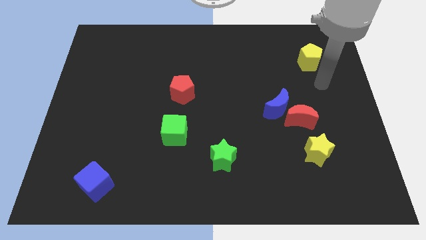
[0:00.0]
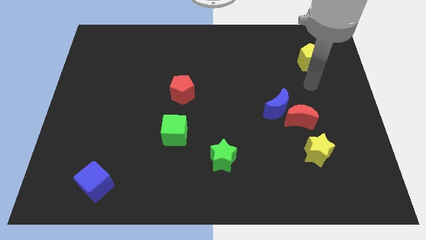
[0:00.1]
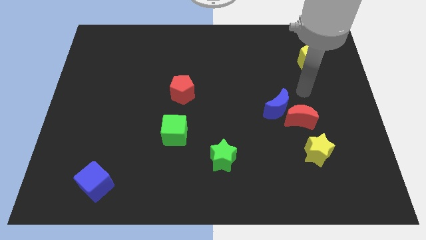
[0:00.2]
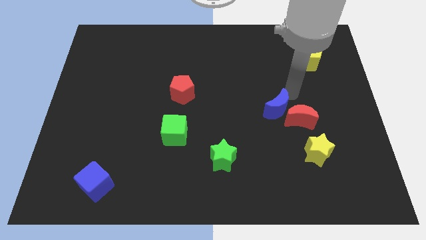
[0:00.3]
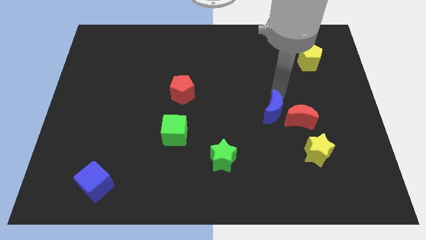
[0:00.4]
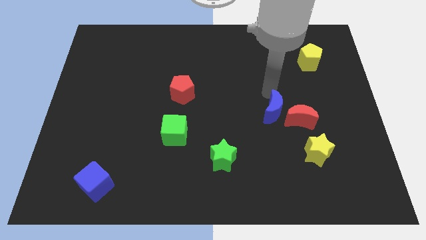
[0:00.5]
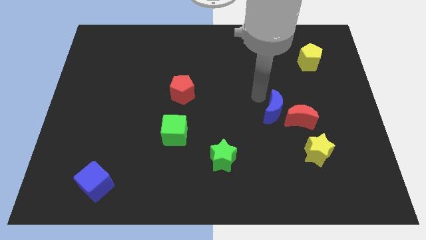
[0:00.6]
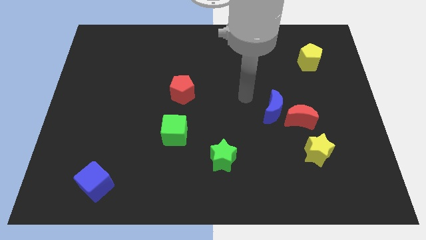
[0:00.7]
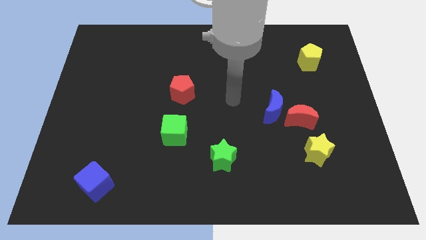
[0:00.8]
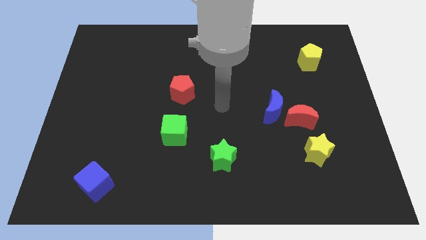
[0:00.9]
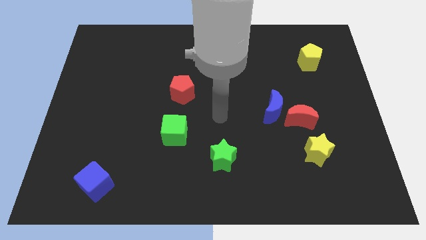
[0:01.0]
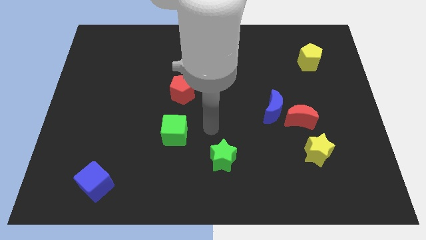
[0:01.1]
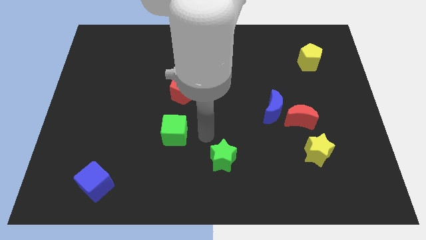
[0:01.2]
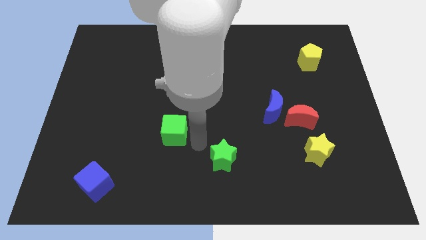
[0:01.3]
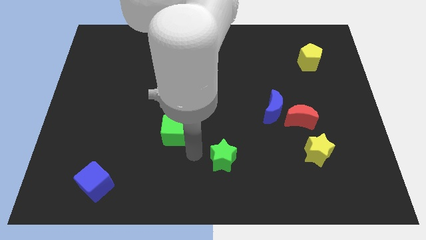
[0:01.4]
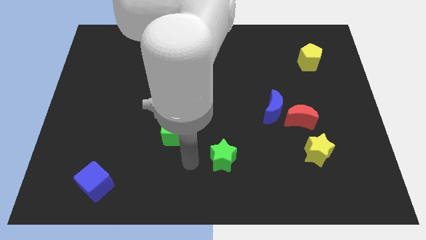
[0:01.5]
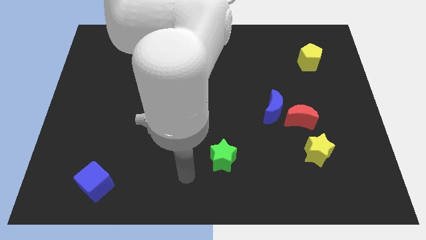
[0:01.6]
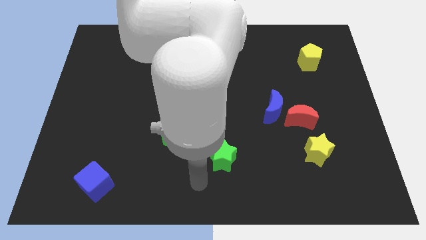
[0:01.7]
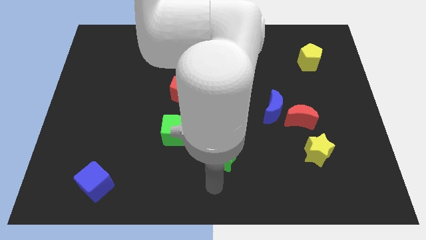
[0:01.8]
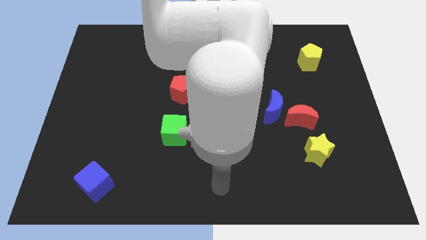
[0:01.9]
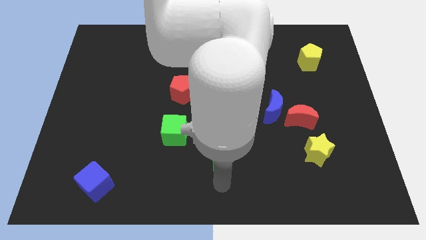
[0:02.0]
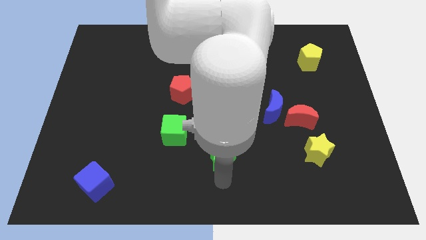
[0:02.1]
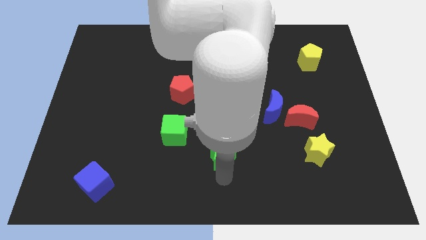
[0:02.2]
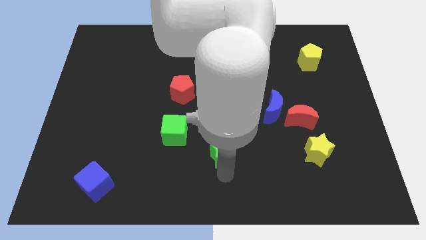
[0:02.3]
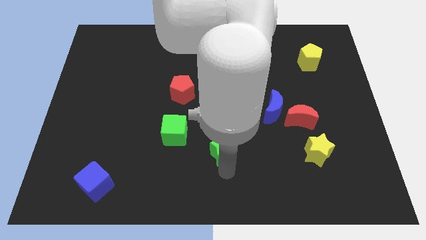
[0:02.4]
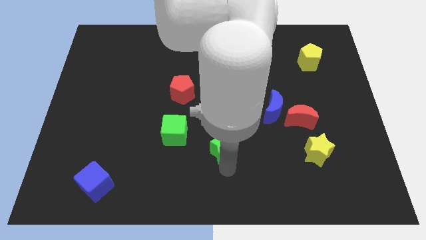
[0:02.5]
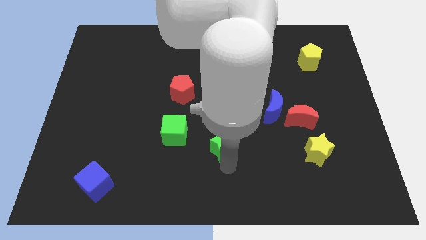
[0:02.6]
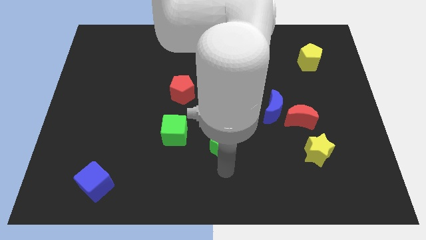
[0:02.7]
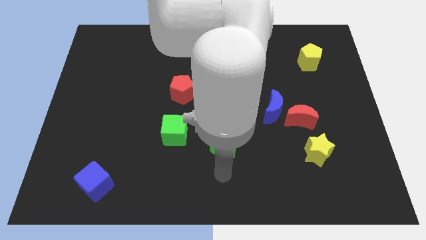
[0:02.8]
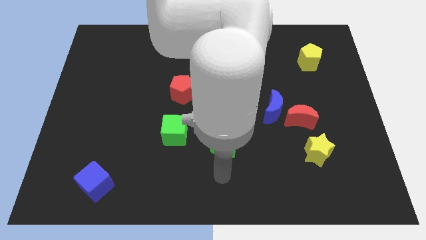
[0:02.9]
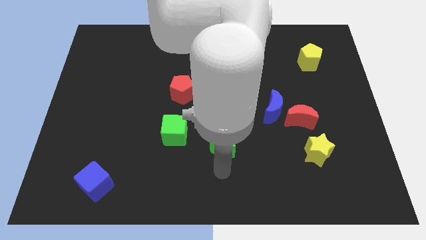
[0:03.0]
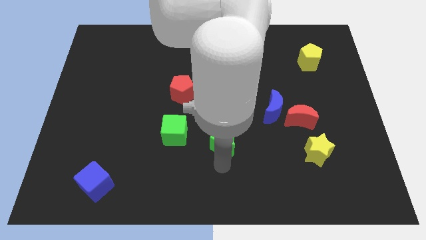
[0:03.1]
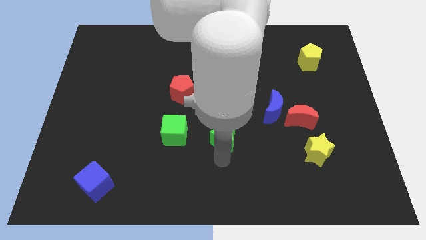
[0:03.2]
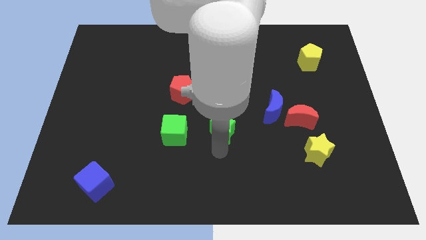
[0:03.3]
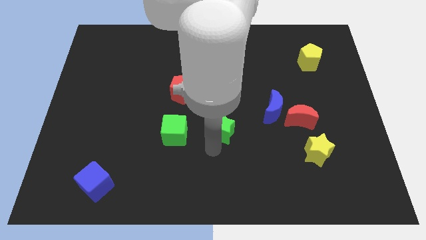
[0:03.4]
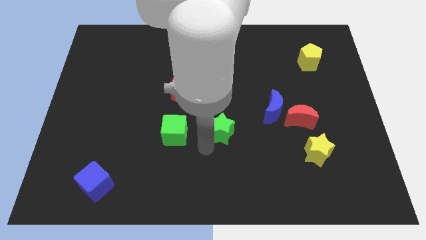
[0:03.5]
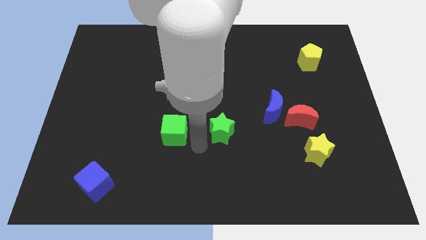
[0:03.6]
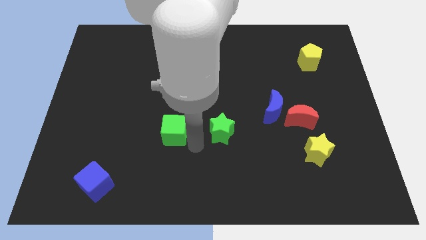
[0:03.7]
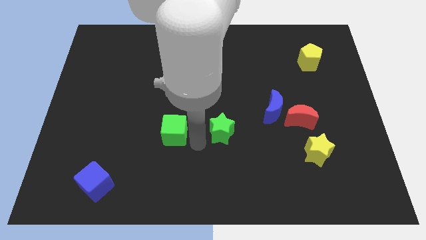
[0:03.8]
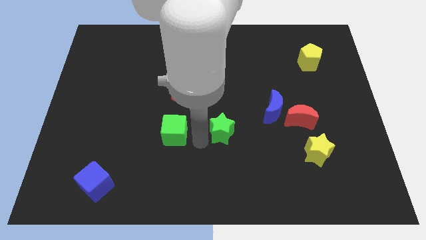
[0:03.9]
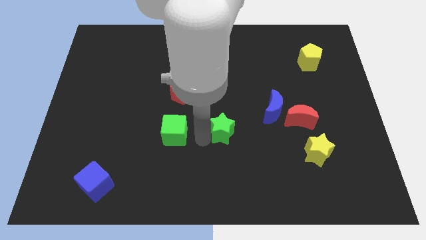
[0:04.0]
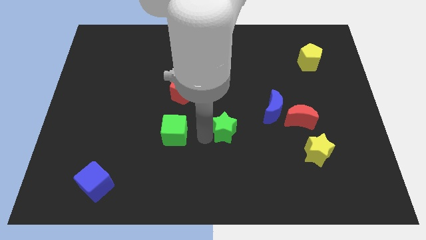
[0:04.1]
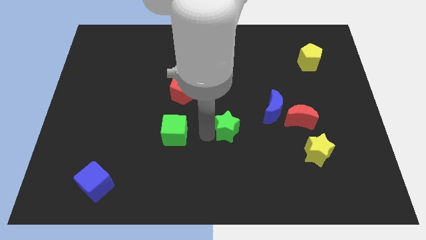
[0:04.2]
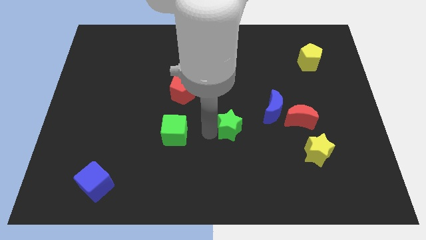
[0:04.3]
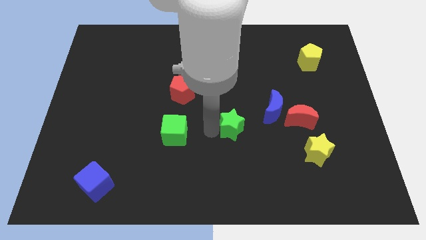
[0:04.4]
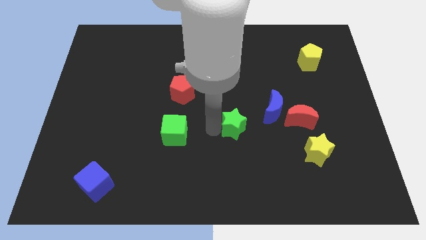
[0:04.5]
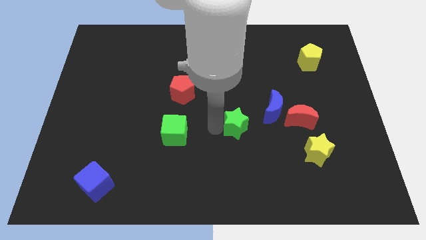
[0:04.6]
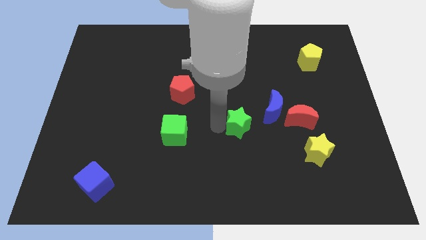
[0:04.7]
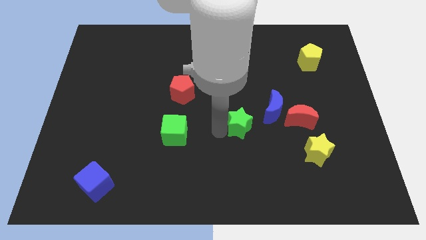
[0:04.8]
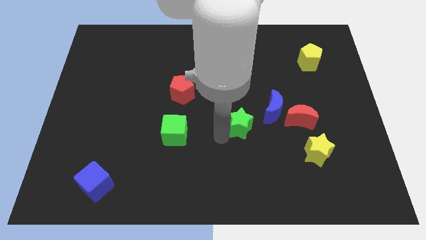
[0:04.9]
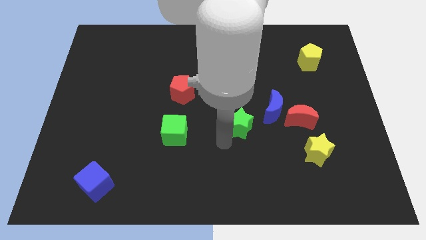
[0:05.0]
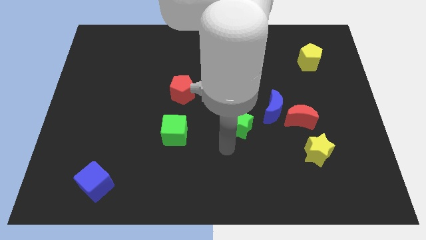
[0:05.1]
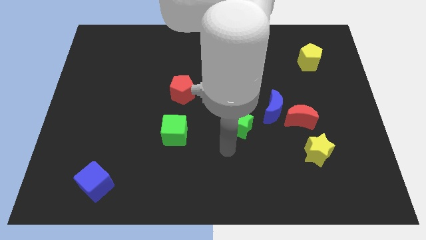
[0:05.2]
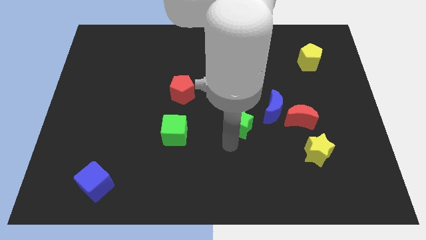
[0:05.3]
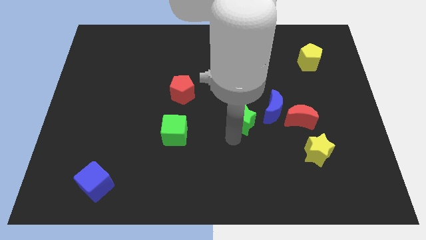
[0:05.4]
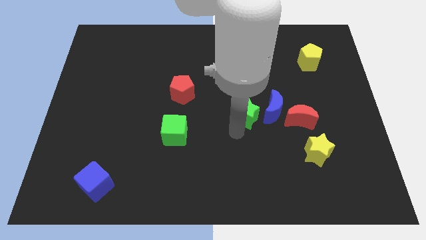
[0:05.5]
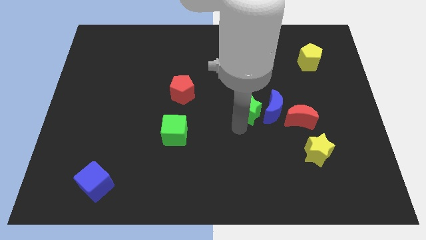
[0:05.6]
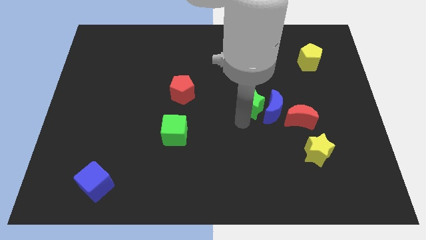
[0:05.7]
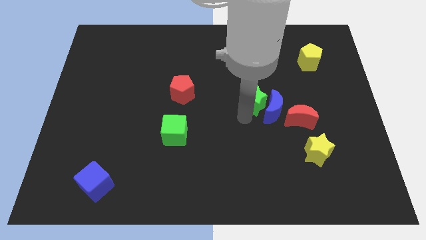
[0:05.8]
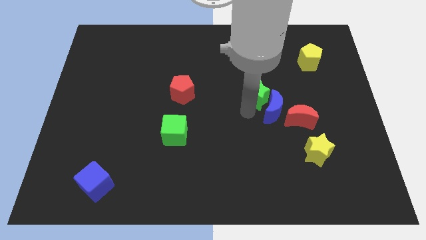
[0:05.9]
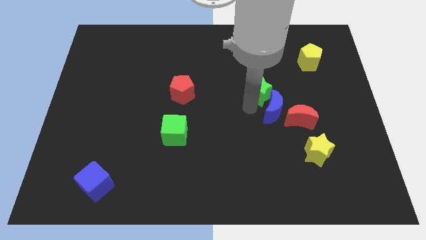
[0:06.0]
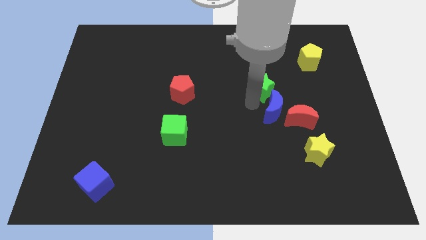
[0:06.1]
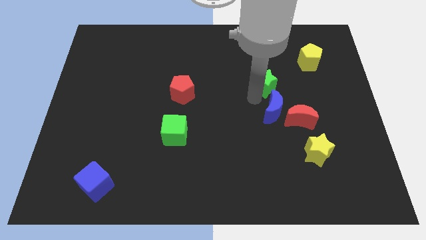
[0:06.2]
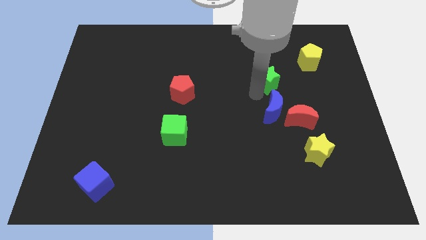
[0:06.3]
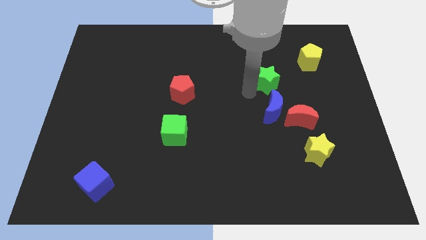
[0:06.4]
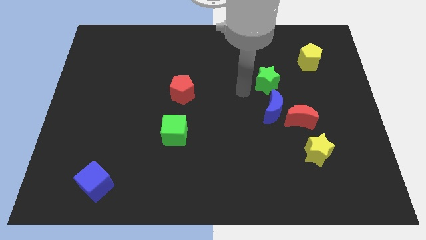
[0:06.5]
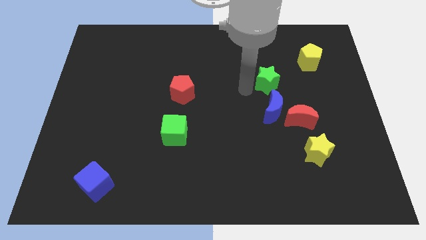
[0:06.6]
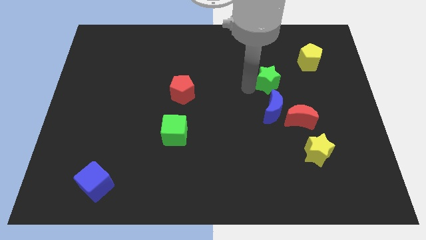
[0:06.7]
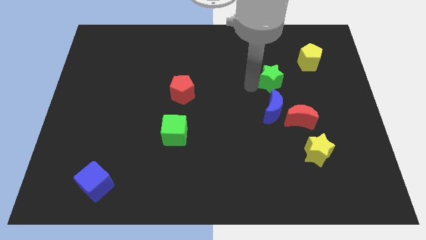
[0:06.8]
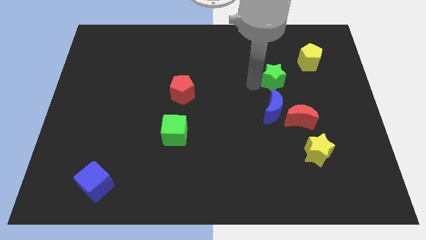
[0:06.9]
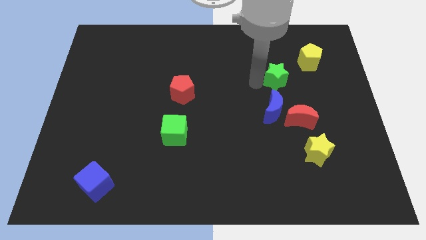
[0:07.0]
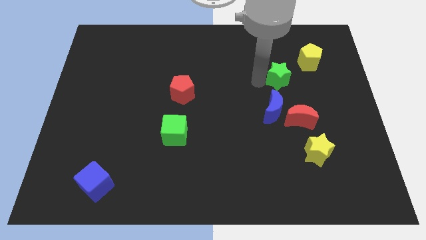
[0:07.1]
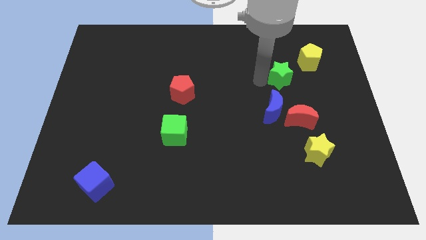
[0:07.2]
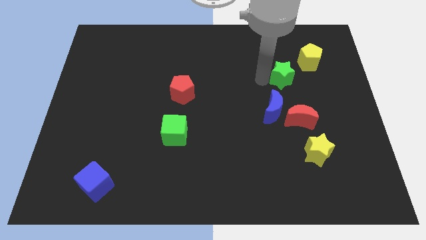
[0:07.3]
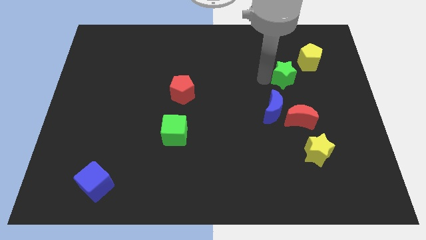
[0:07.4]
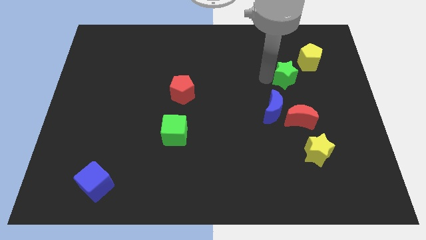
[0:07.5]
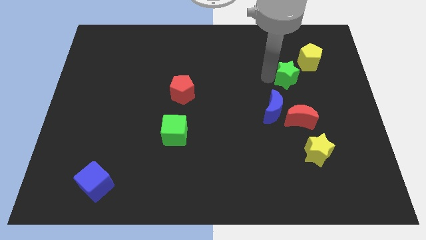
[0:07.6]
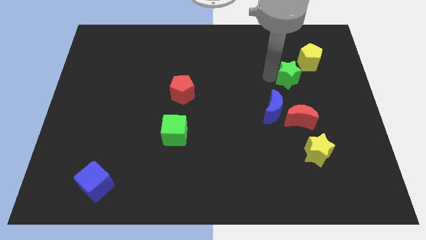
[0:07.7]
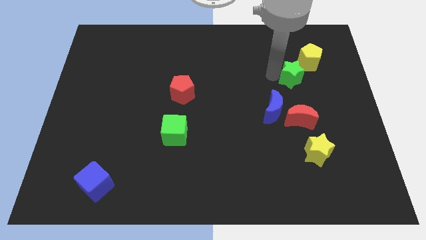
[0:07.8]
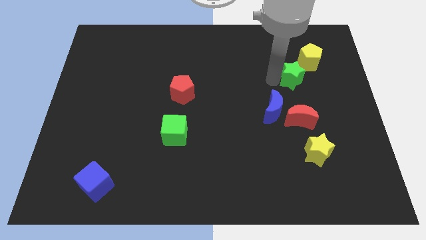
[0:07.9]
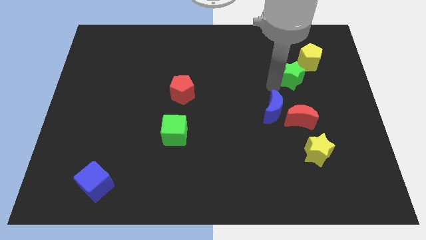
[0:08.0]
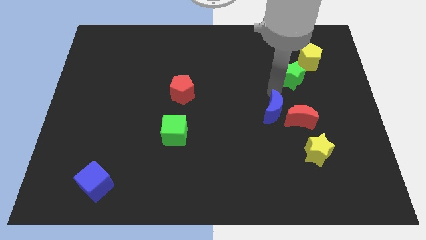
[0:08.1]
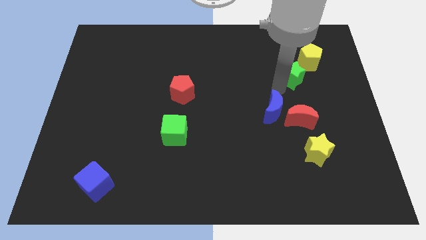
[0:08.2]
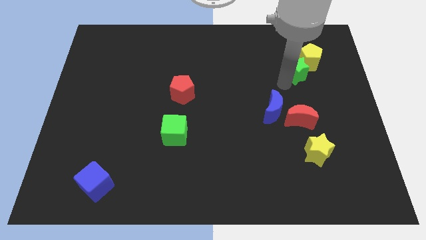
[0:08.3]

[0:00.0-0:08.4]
push the green star towards the yellow pentagon
